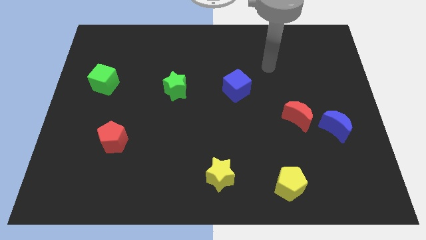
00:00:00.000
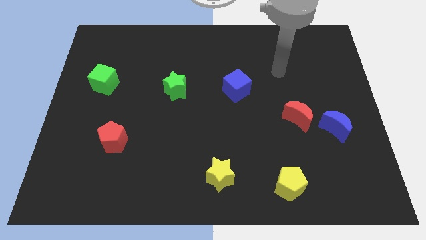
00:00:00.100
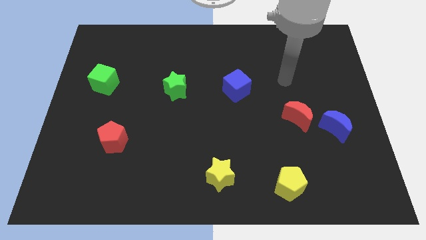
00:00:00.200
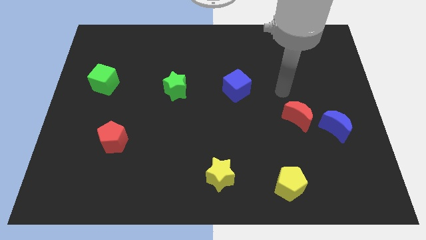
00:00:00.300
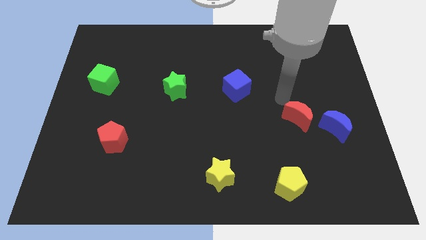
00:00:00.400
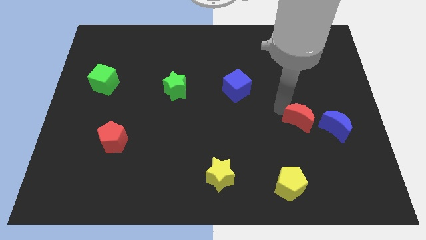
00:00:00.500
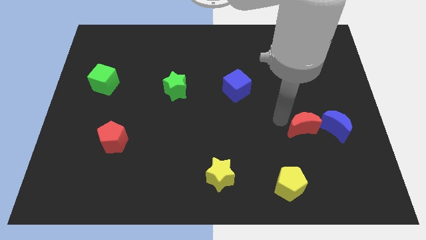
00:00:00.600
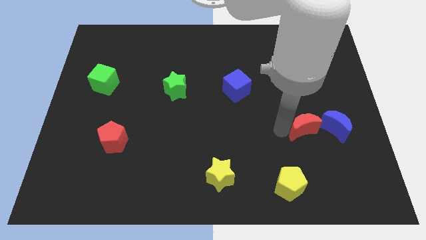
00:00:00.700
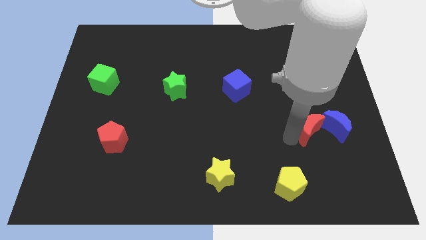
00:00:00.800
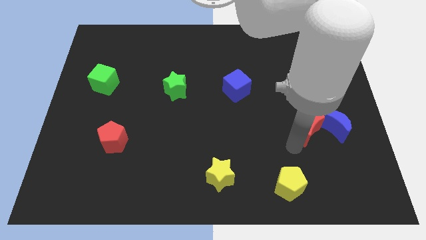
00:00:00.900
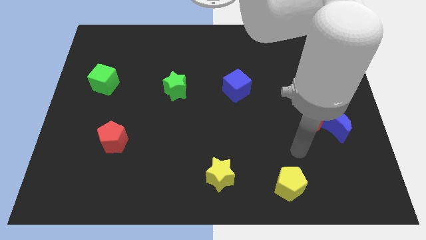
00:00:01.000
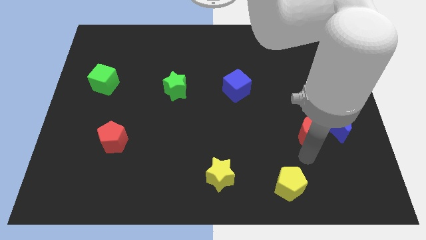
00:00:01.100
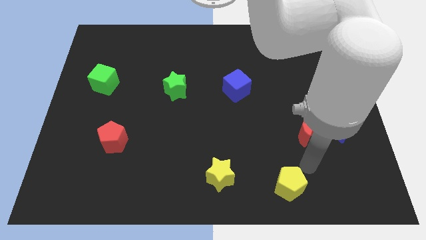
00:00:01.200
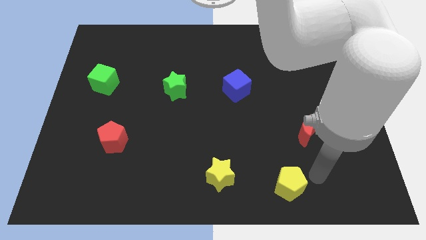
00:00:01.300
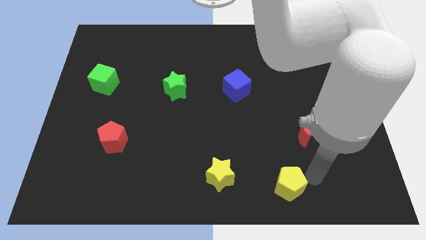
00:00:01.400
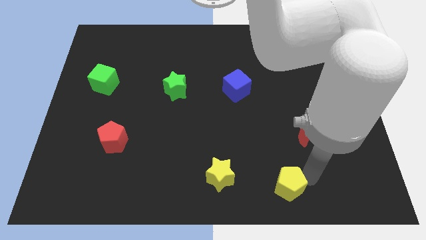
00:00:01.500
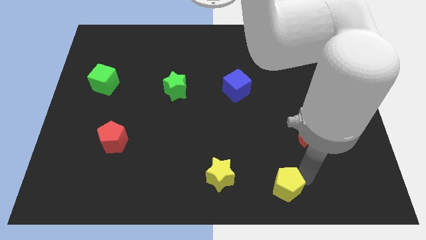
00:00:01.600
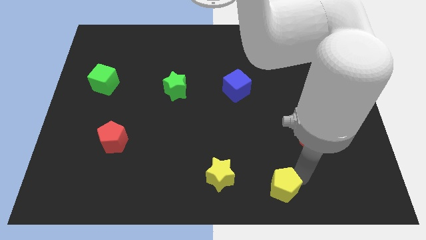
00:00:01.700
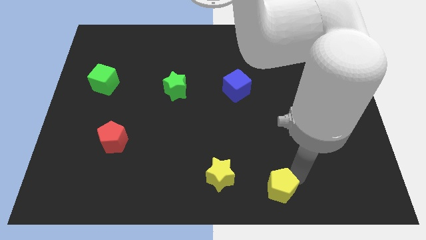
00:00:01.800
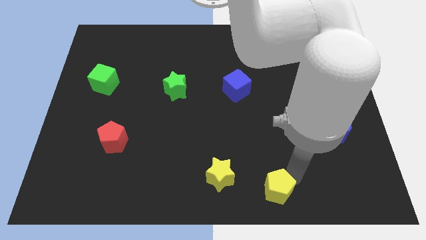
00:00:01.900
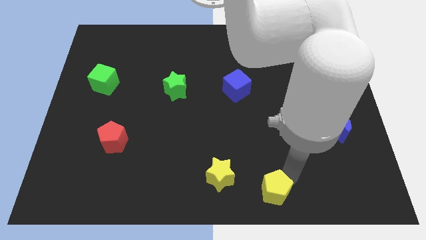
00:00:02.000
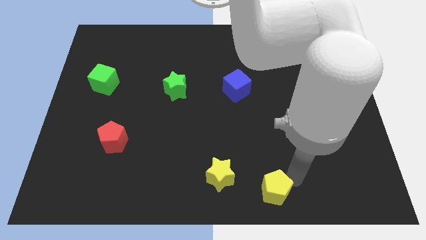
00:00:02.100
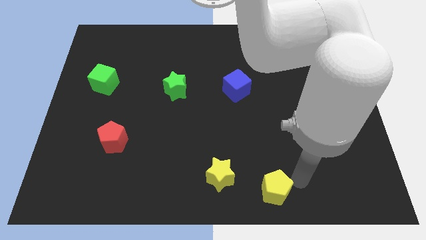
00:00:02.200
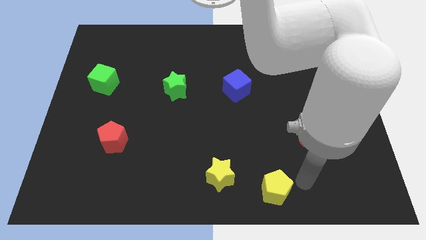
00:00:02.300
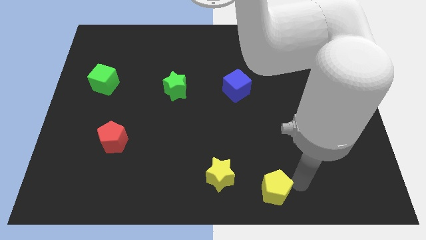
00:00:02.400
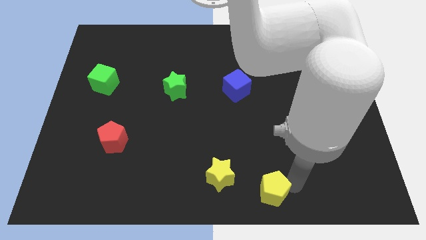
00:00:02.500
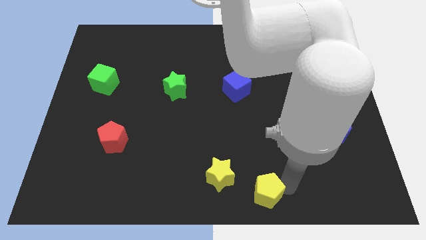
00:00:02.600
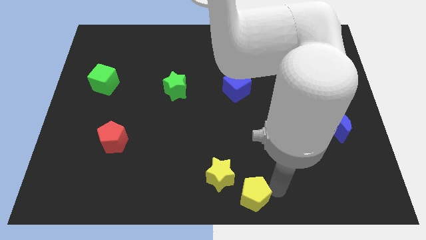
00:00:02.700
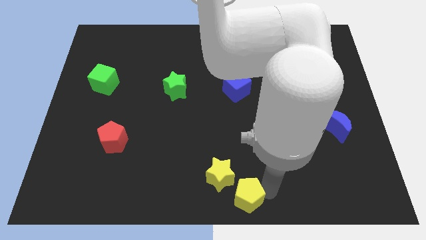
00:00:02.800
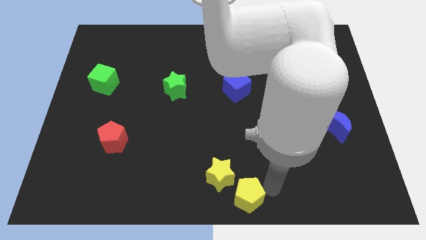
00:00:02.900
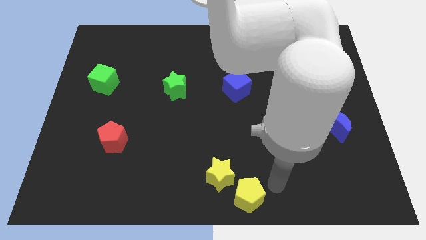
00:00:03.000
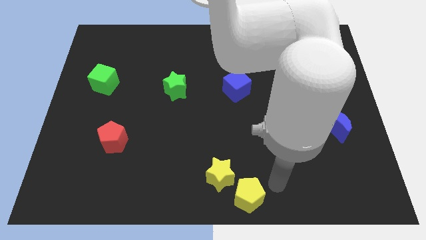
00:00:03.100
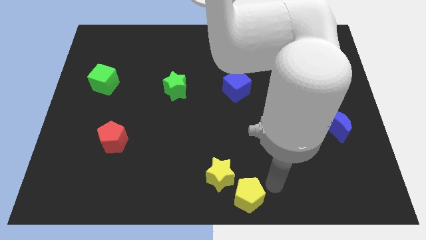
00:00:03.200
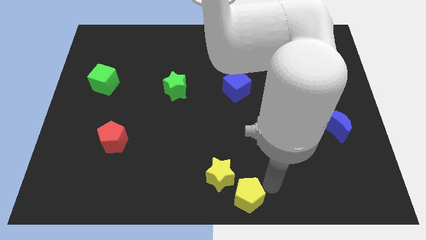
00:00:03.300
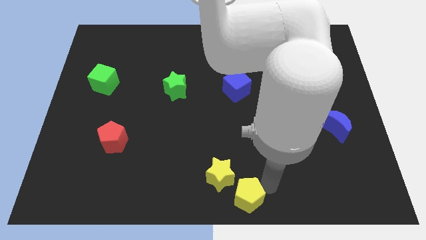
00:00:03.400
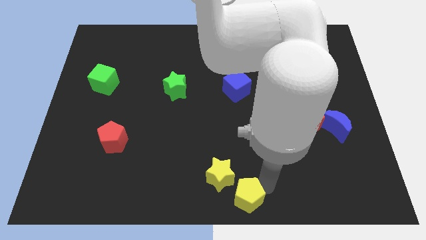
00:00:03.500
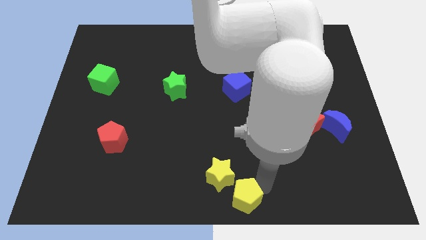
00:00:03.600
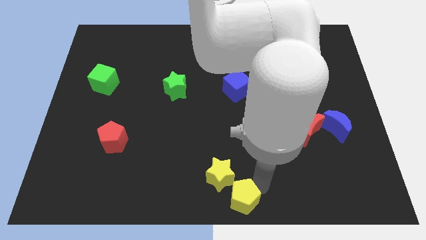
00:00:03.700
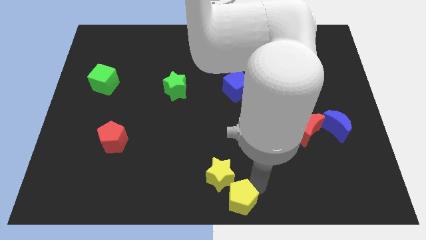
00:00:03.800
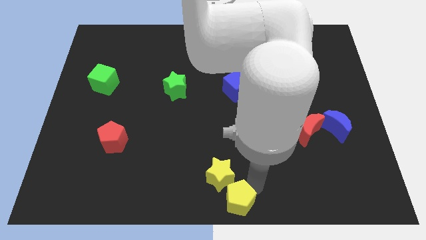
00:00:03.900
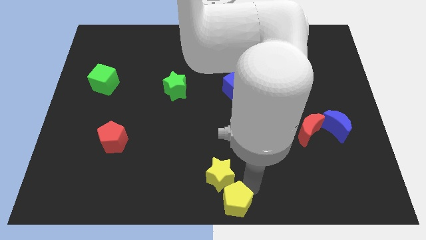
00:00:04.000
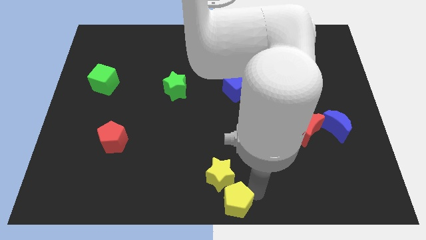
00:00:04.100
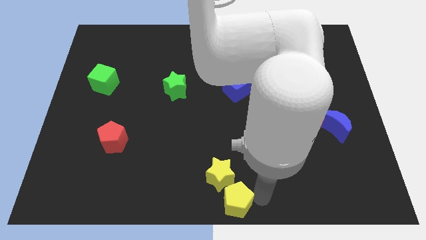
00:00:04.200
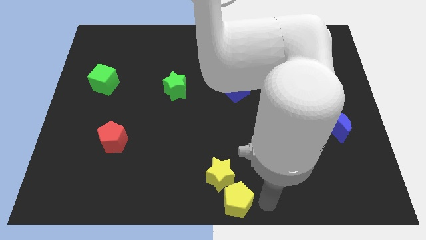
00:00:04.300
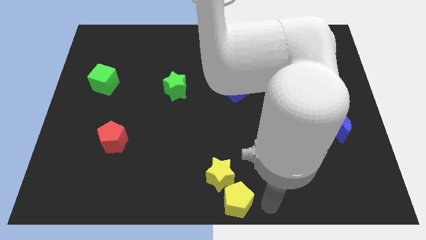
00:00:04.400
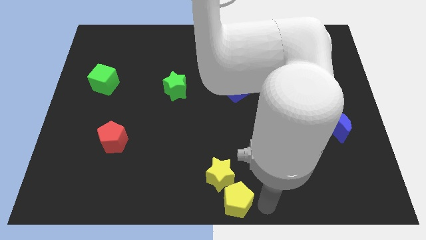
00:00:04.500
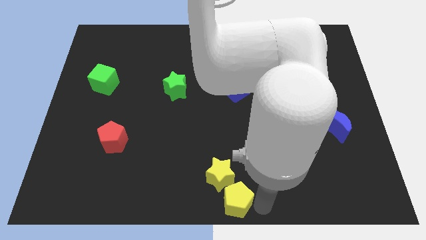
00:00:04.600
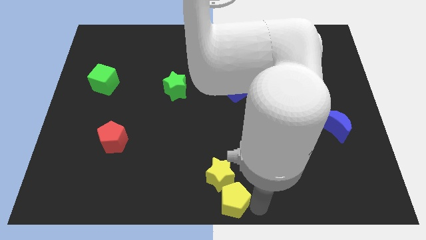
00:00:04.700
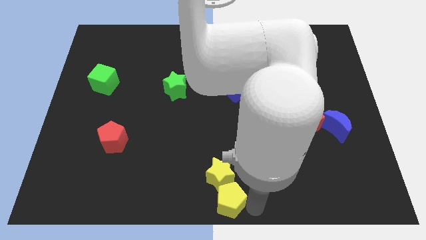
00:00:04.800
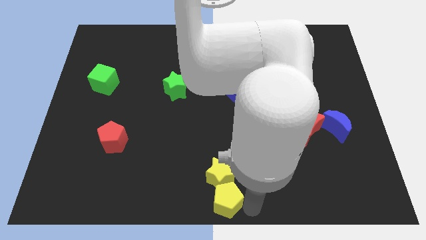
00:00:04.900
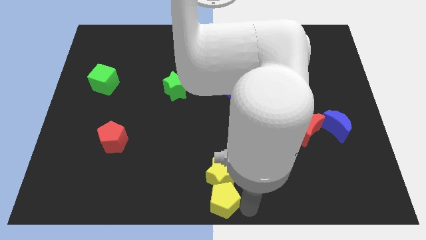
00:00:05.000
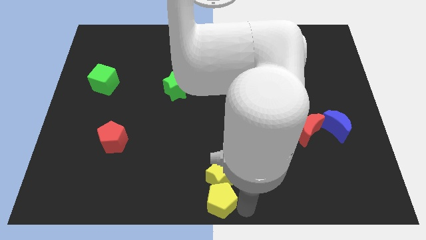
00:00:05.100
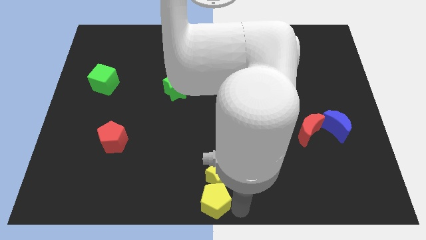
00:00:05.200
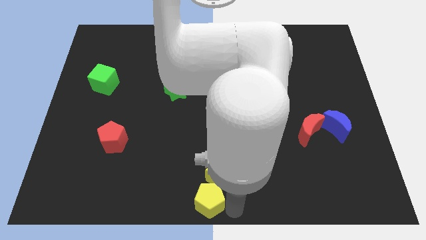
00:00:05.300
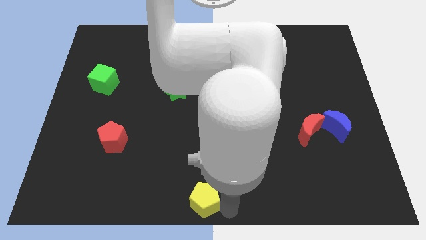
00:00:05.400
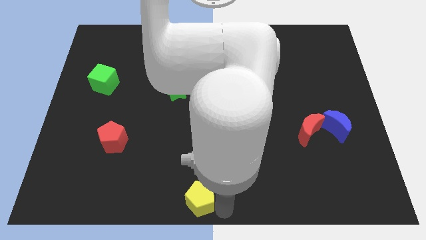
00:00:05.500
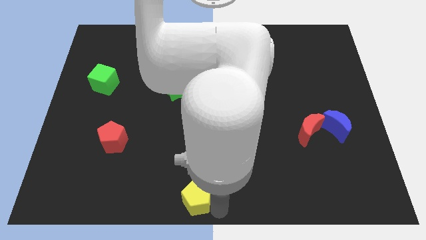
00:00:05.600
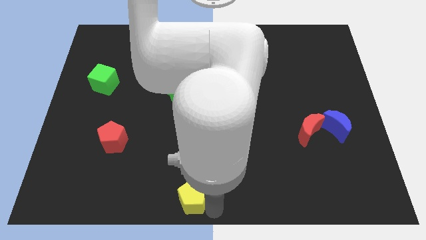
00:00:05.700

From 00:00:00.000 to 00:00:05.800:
move the yellow pentagon left of the yellow star

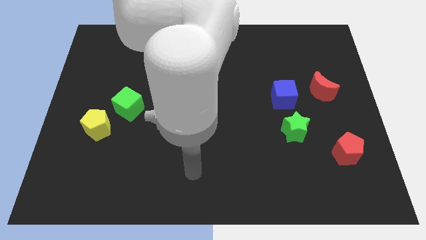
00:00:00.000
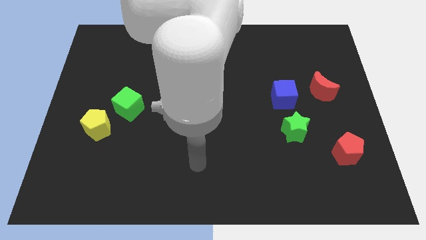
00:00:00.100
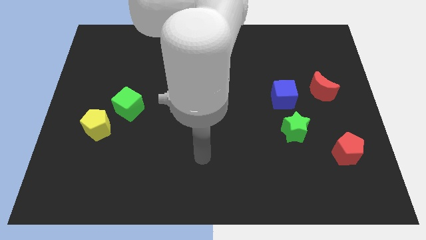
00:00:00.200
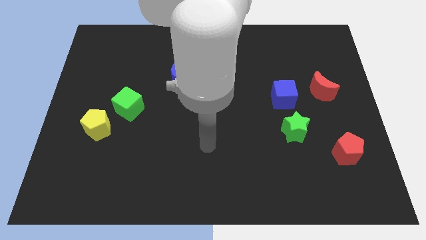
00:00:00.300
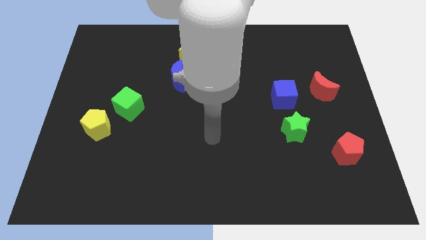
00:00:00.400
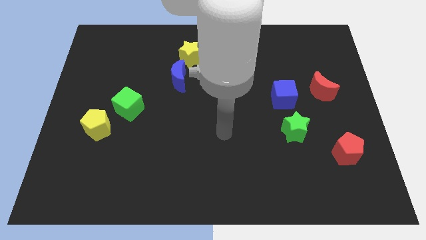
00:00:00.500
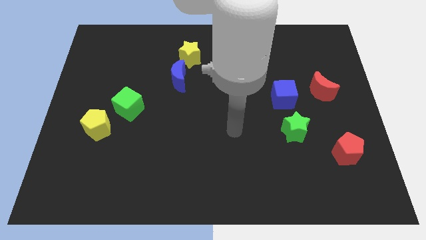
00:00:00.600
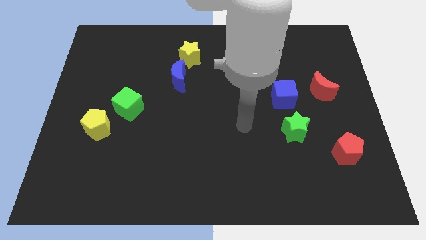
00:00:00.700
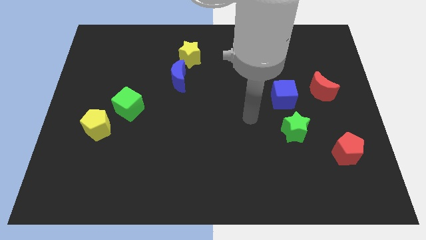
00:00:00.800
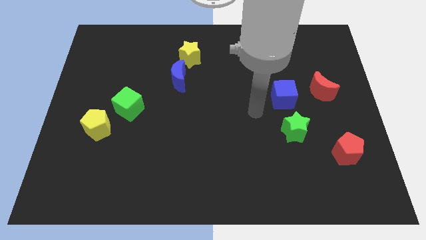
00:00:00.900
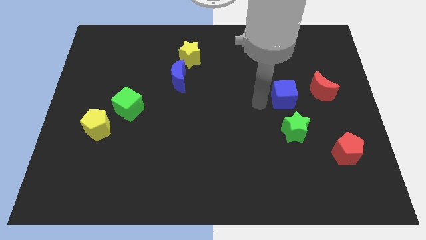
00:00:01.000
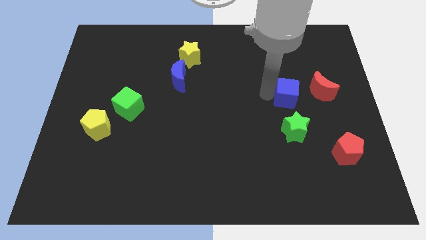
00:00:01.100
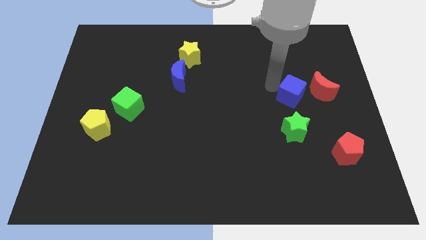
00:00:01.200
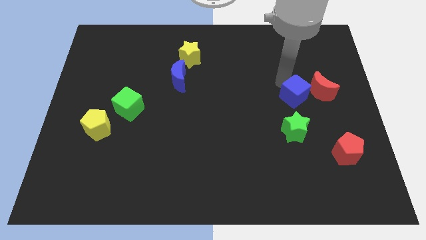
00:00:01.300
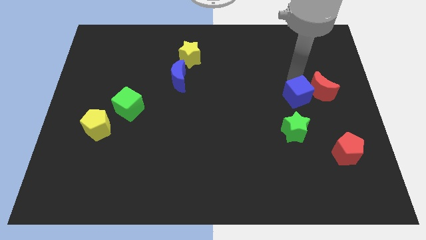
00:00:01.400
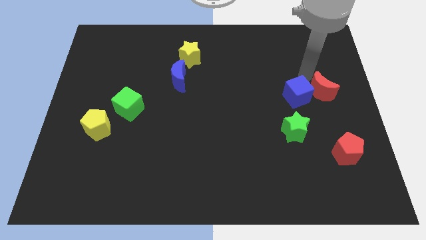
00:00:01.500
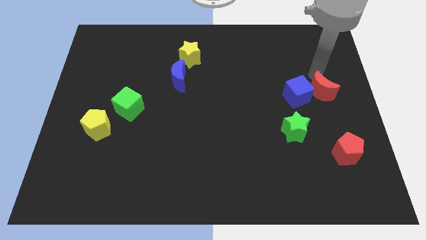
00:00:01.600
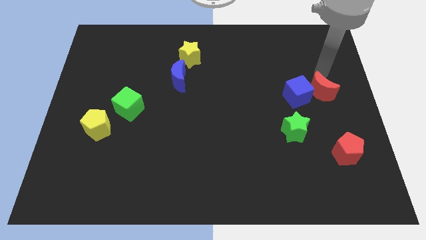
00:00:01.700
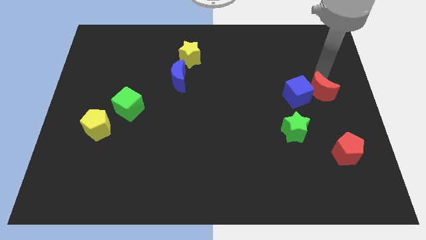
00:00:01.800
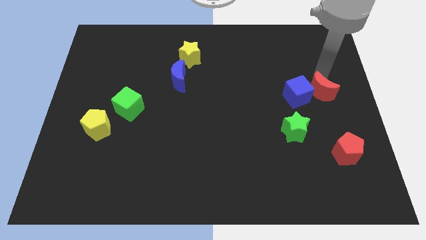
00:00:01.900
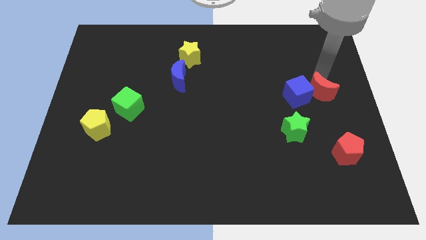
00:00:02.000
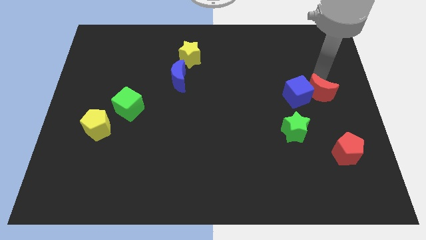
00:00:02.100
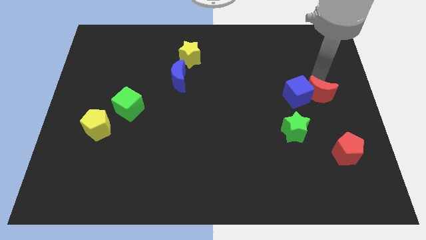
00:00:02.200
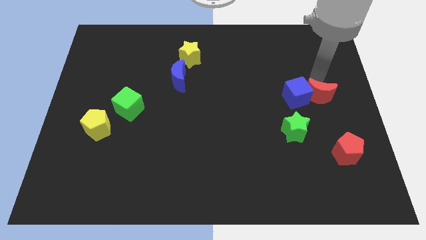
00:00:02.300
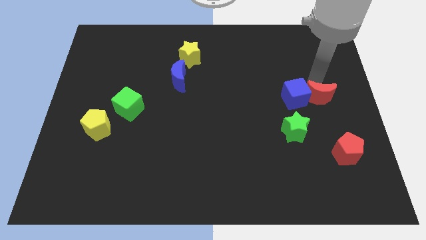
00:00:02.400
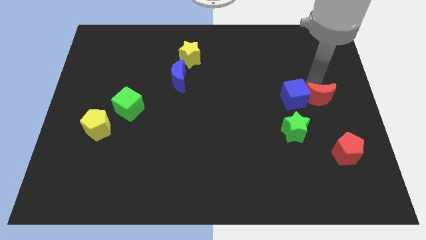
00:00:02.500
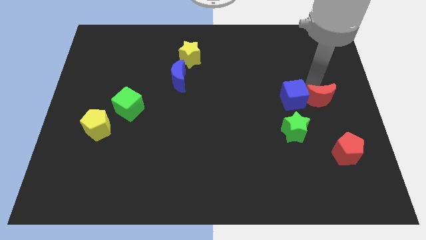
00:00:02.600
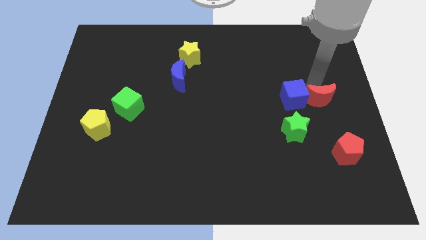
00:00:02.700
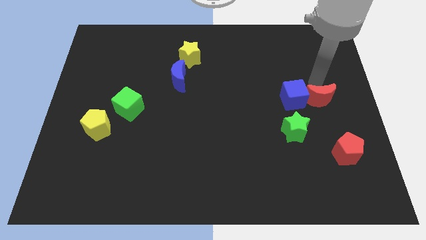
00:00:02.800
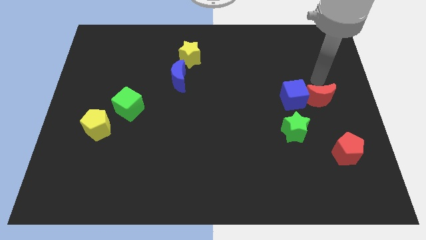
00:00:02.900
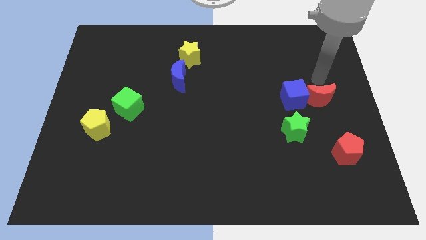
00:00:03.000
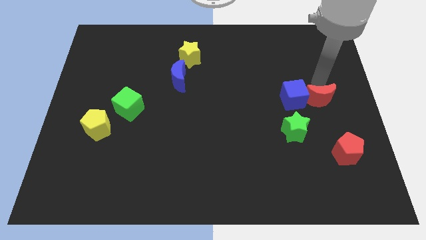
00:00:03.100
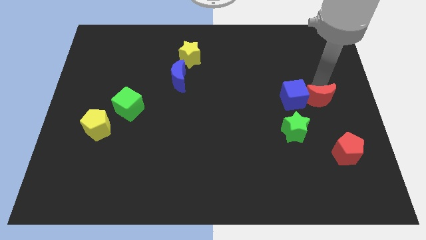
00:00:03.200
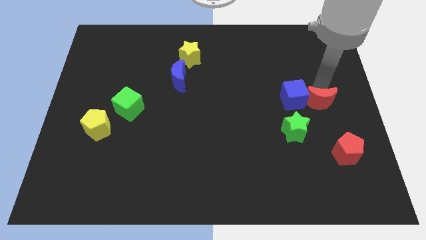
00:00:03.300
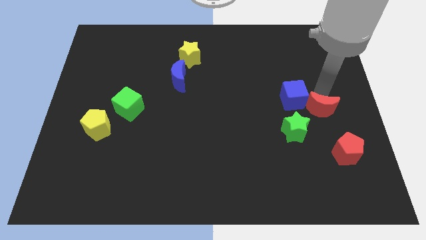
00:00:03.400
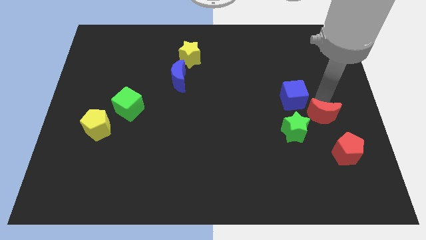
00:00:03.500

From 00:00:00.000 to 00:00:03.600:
slide the red moon diagonally up and to the left of the red pentagon
